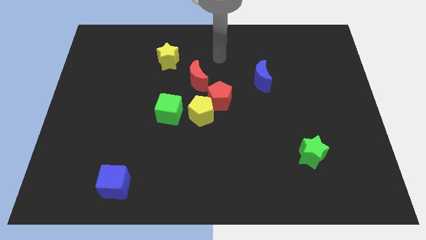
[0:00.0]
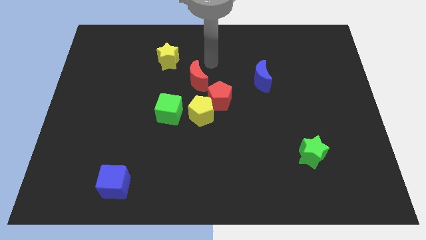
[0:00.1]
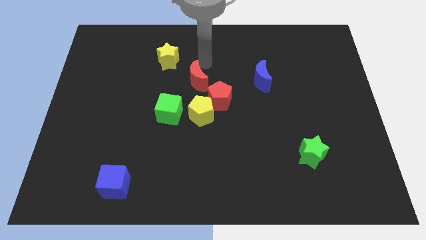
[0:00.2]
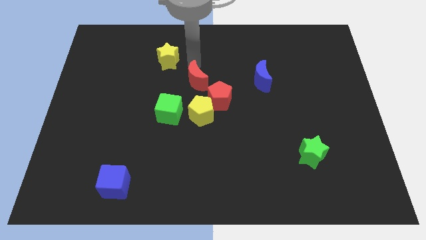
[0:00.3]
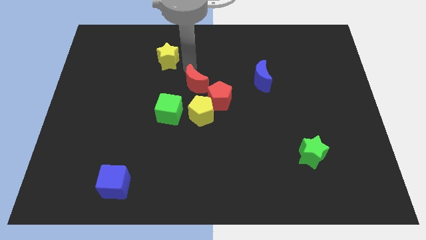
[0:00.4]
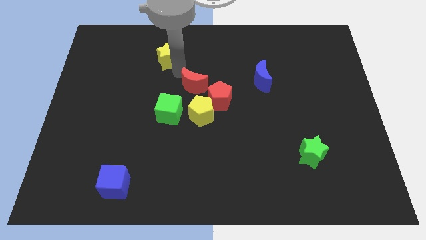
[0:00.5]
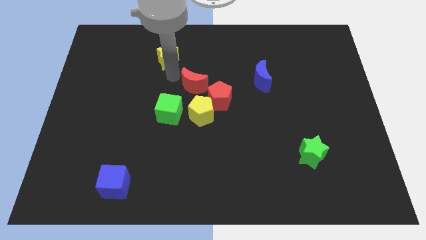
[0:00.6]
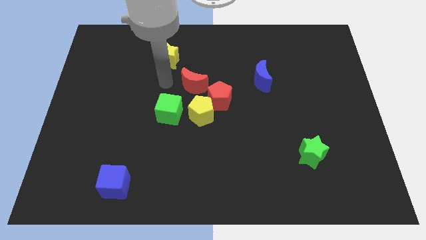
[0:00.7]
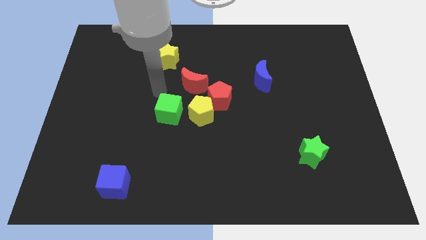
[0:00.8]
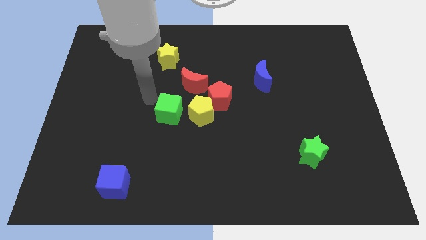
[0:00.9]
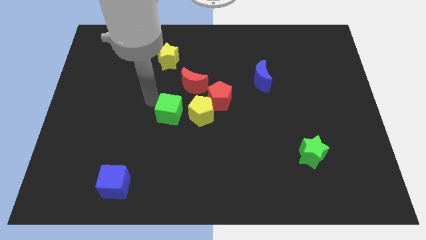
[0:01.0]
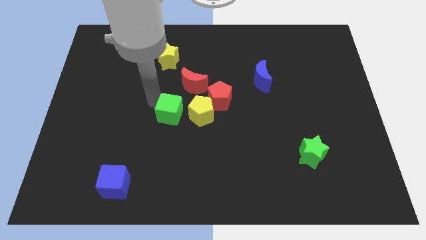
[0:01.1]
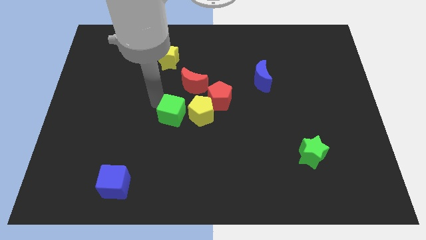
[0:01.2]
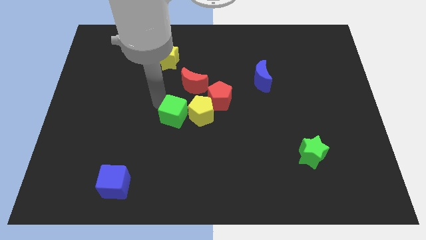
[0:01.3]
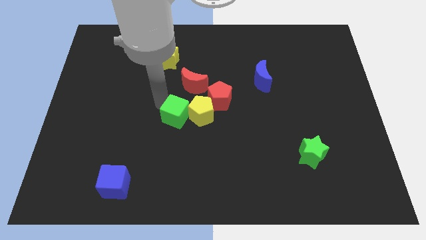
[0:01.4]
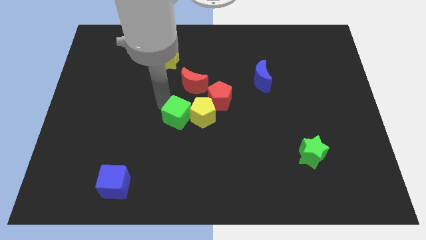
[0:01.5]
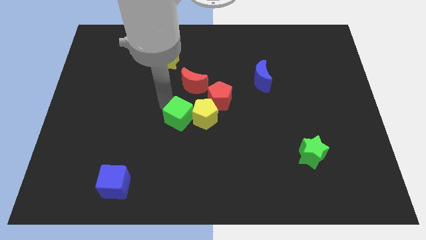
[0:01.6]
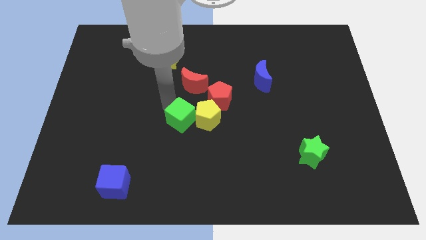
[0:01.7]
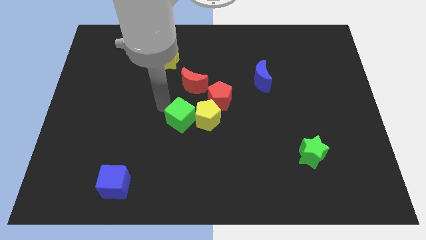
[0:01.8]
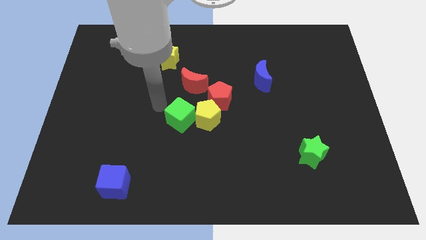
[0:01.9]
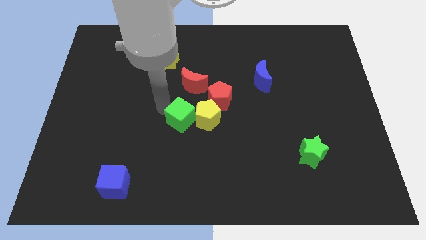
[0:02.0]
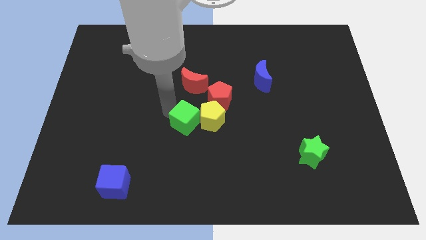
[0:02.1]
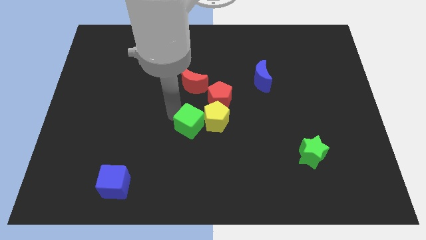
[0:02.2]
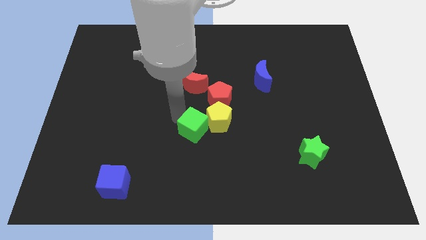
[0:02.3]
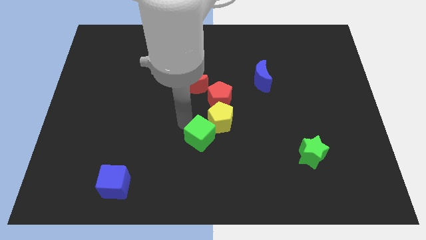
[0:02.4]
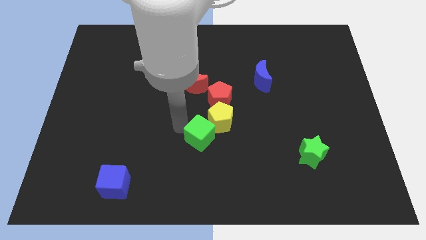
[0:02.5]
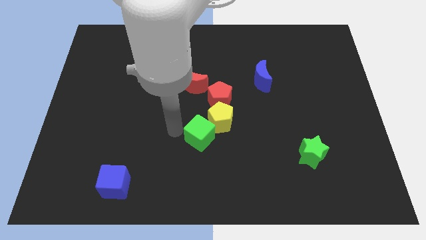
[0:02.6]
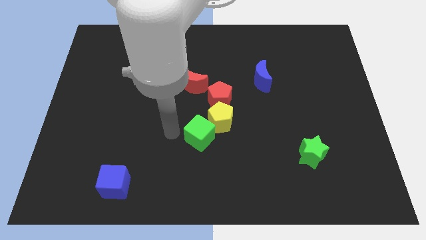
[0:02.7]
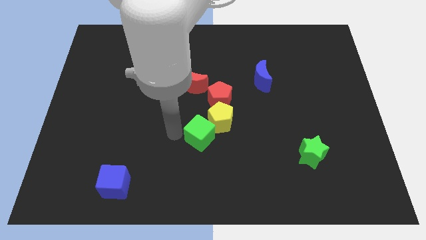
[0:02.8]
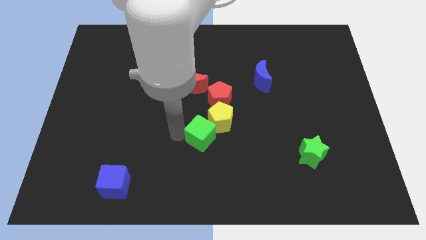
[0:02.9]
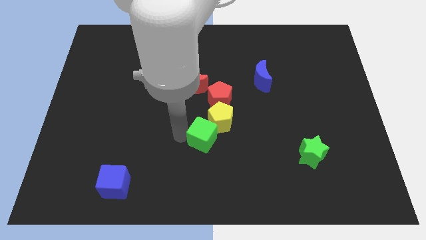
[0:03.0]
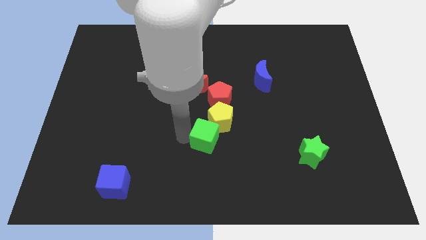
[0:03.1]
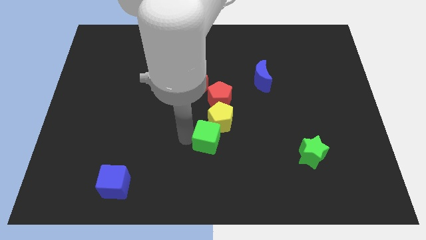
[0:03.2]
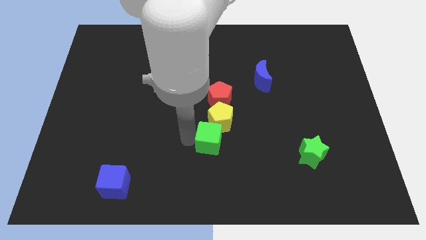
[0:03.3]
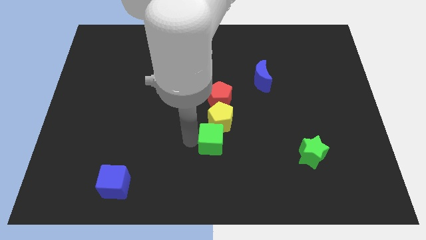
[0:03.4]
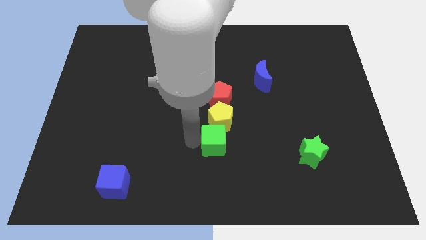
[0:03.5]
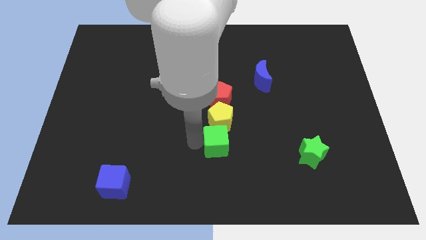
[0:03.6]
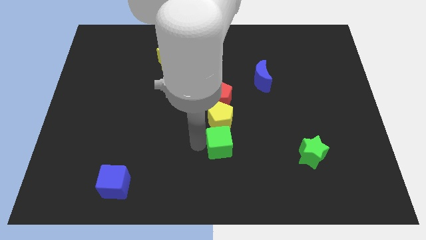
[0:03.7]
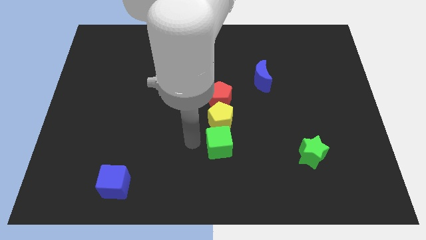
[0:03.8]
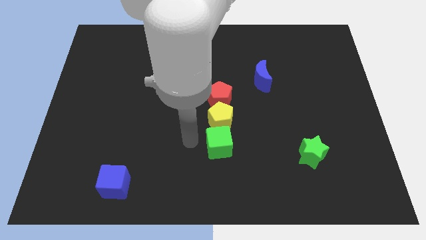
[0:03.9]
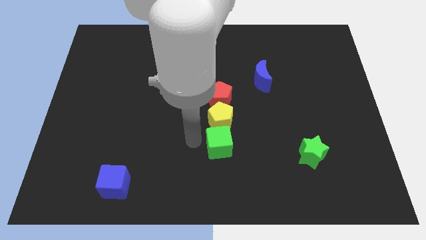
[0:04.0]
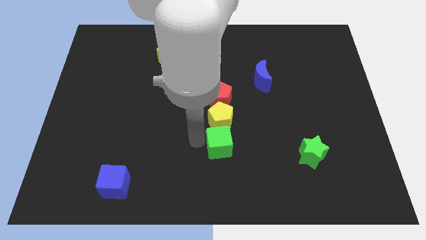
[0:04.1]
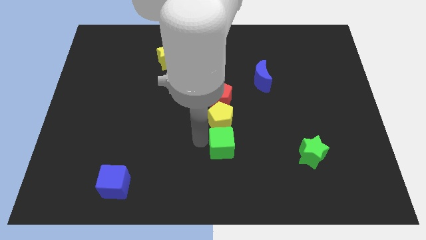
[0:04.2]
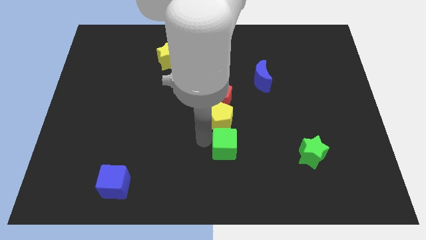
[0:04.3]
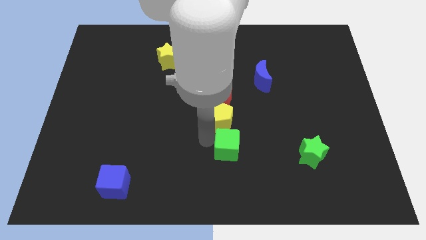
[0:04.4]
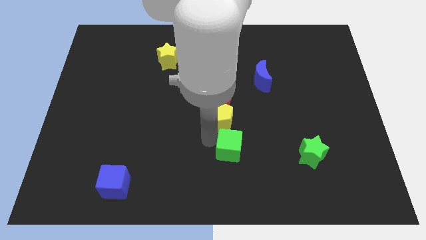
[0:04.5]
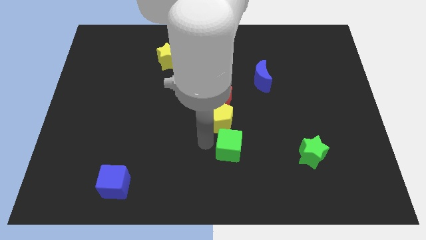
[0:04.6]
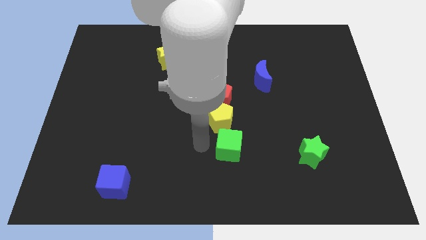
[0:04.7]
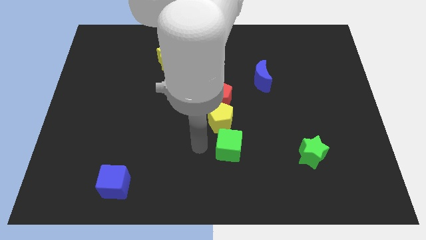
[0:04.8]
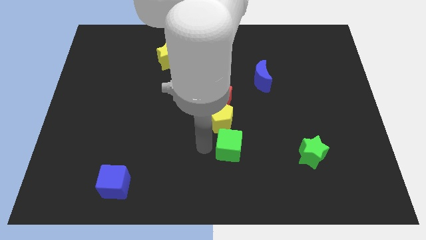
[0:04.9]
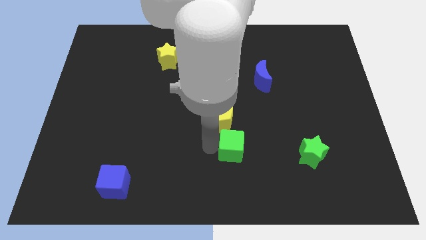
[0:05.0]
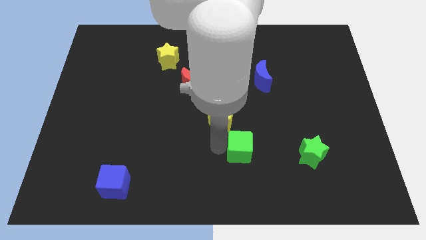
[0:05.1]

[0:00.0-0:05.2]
push the green cube to the left side of the green star

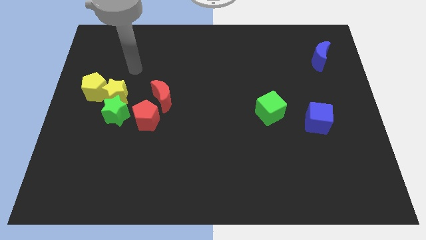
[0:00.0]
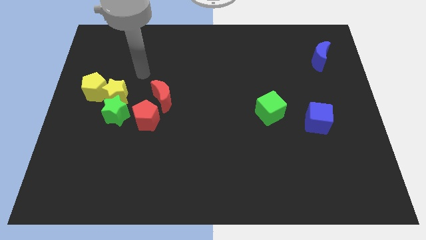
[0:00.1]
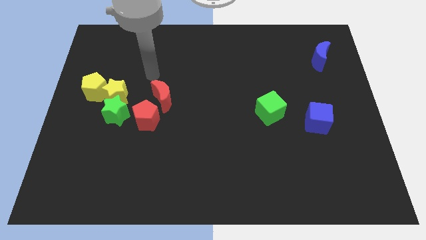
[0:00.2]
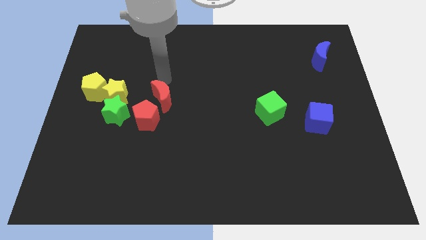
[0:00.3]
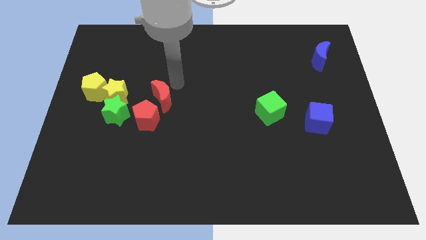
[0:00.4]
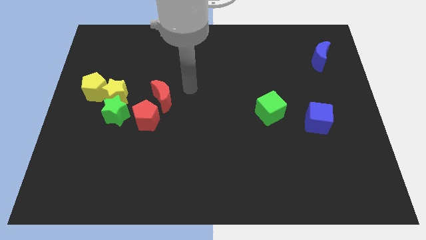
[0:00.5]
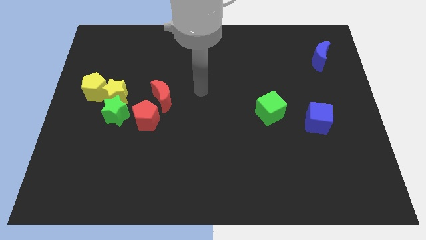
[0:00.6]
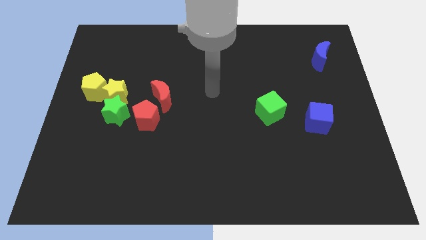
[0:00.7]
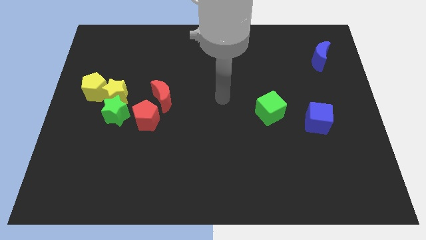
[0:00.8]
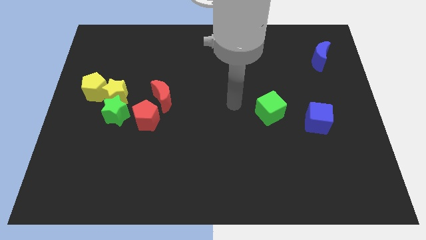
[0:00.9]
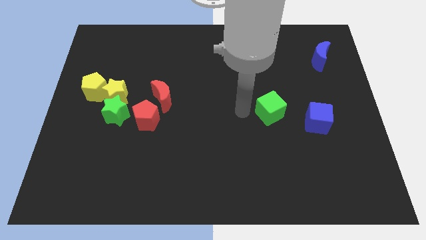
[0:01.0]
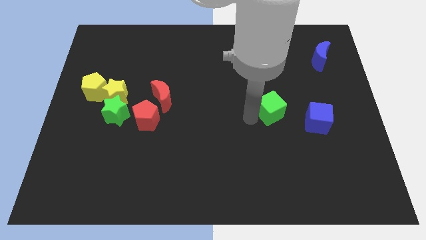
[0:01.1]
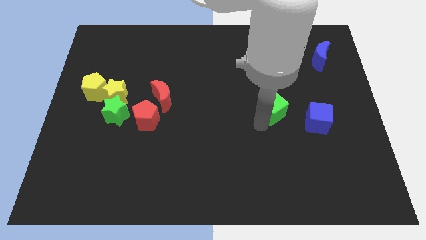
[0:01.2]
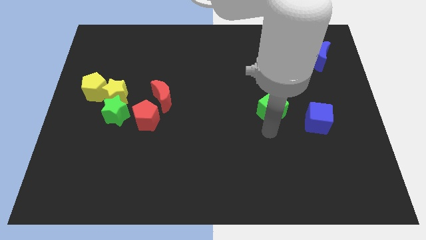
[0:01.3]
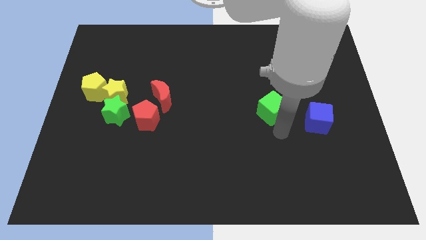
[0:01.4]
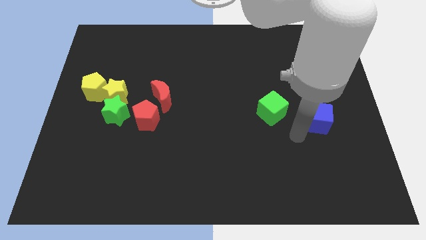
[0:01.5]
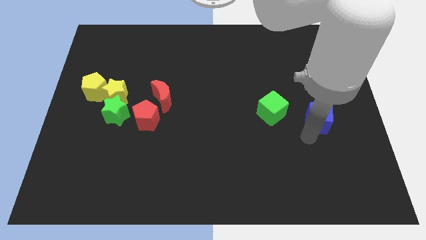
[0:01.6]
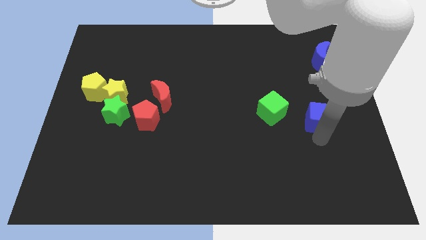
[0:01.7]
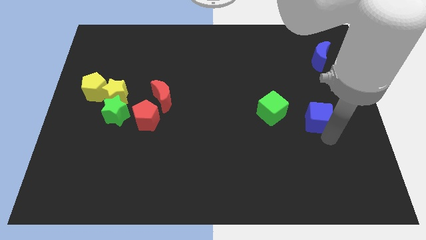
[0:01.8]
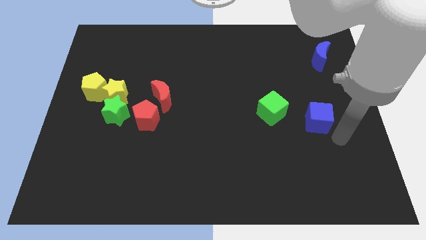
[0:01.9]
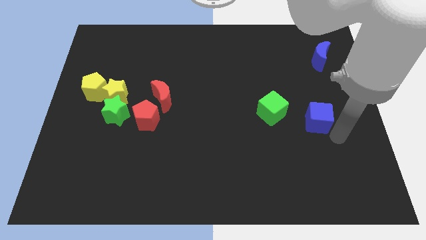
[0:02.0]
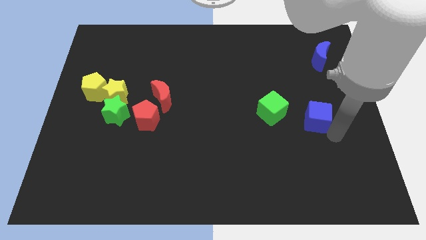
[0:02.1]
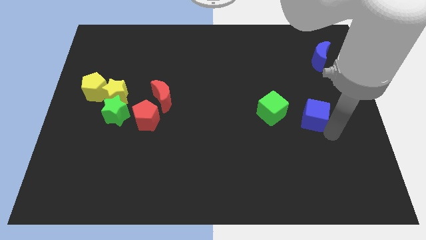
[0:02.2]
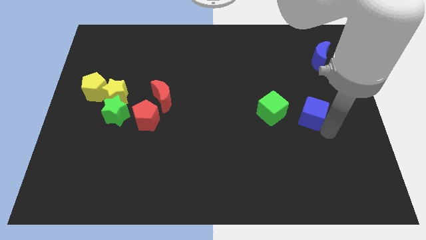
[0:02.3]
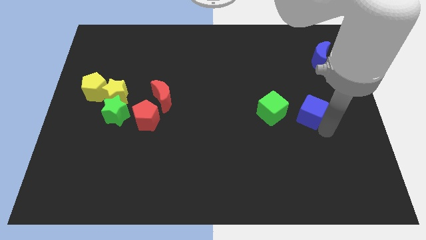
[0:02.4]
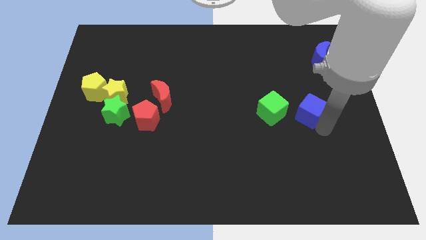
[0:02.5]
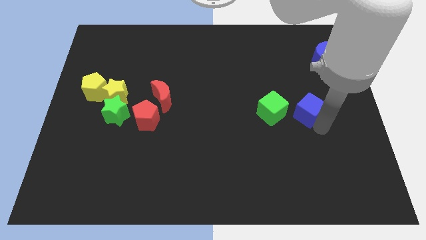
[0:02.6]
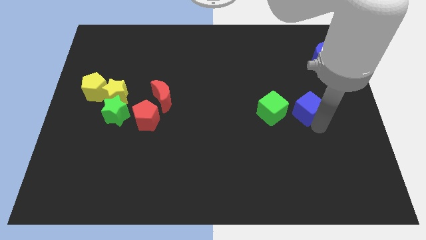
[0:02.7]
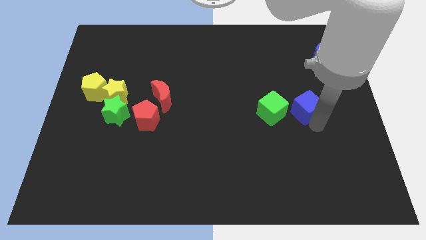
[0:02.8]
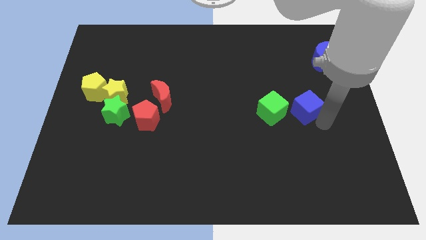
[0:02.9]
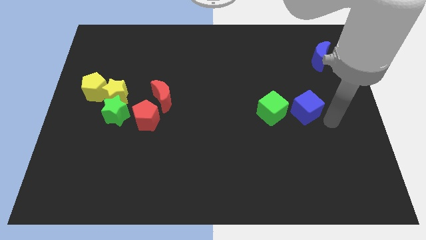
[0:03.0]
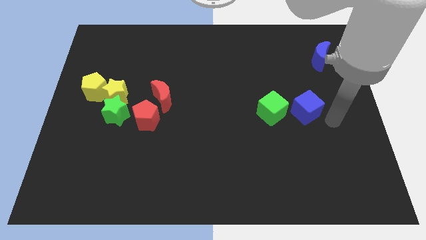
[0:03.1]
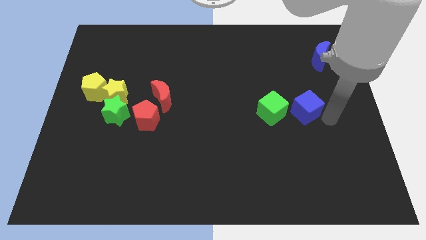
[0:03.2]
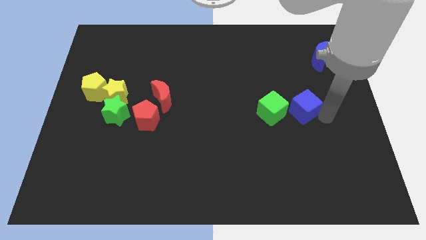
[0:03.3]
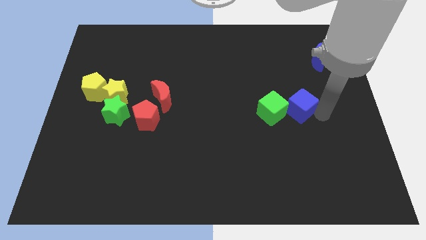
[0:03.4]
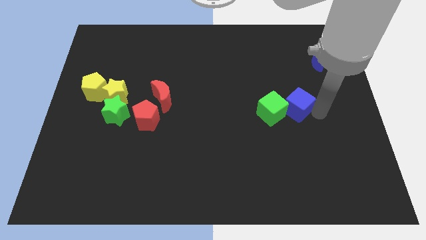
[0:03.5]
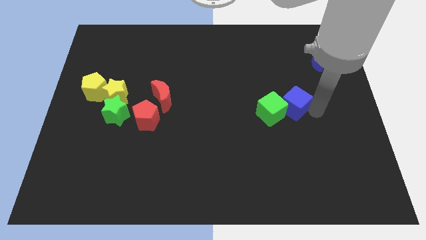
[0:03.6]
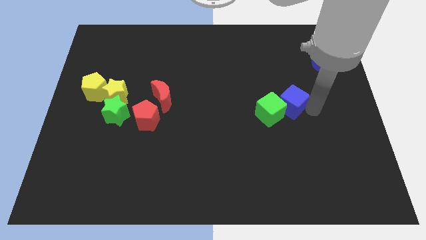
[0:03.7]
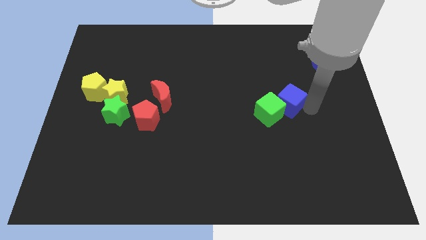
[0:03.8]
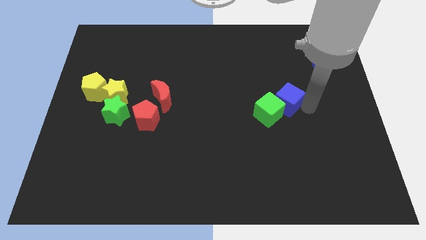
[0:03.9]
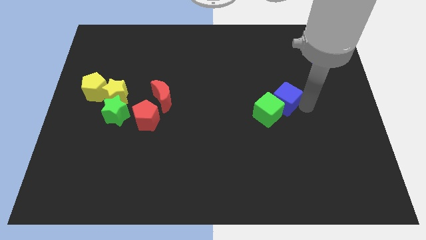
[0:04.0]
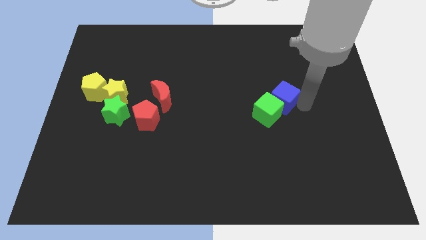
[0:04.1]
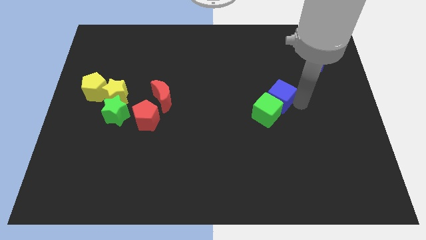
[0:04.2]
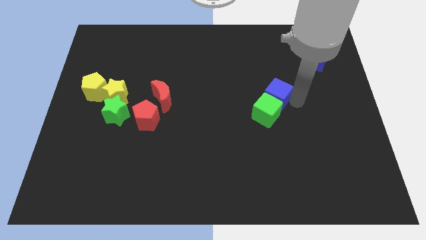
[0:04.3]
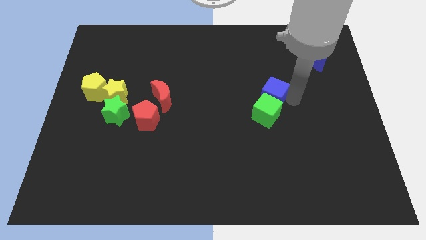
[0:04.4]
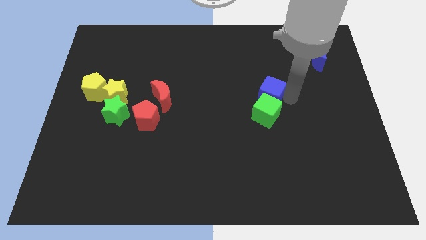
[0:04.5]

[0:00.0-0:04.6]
slide the blue cube diagonally up and to the left of the green cube
